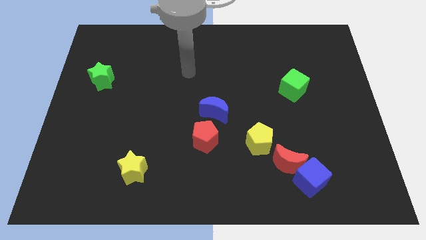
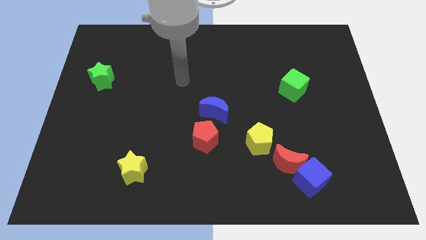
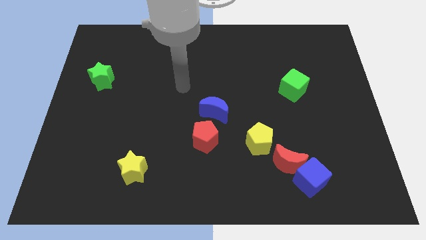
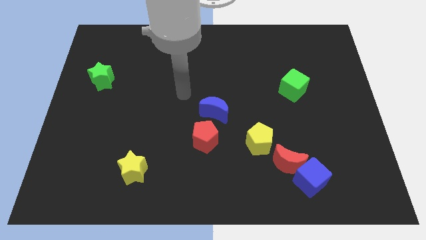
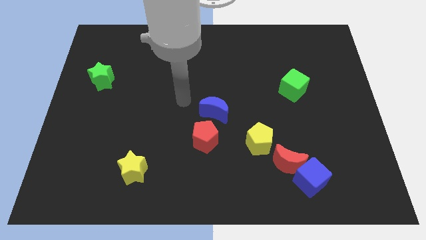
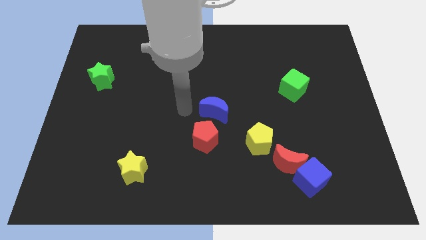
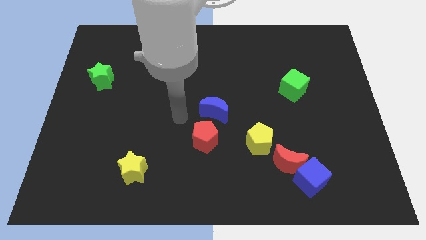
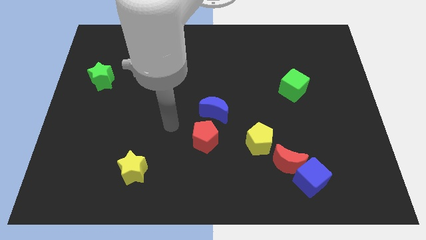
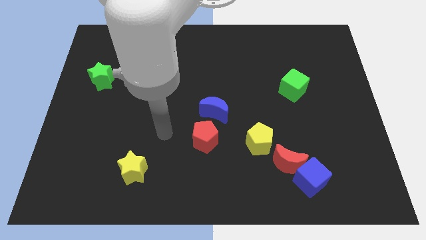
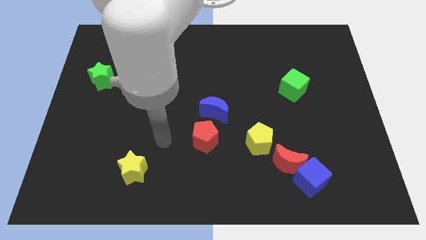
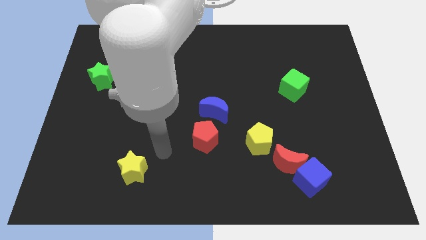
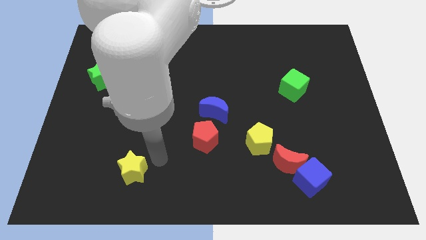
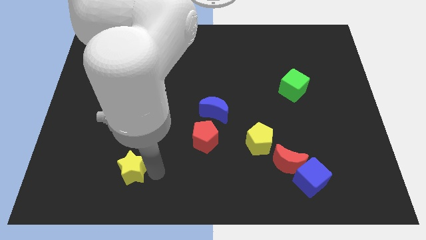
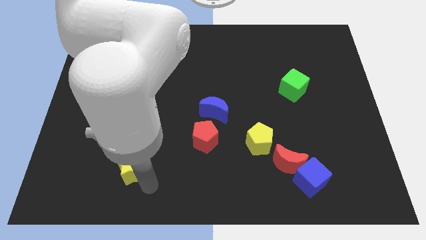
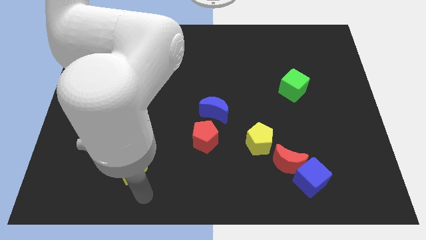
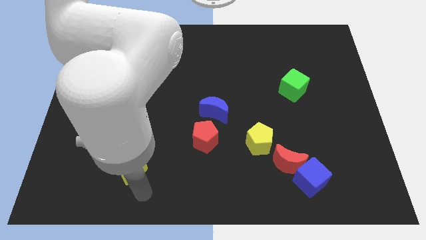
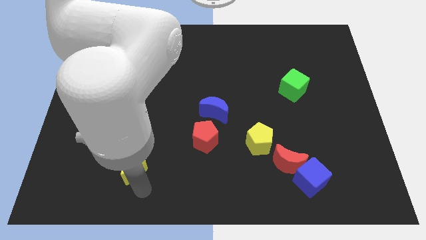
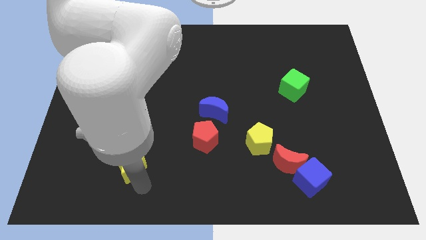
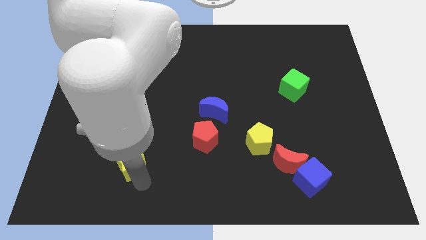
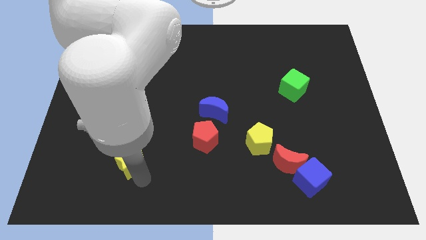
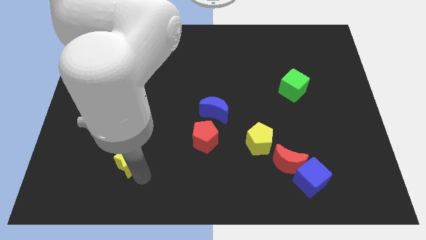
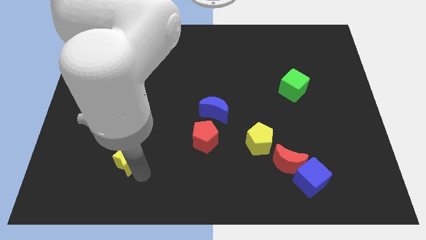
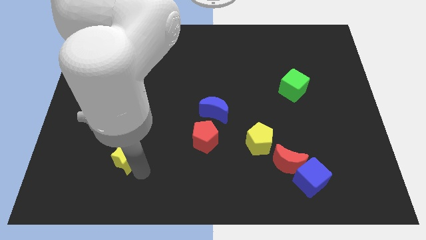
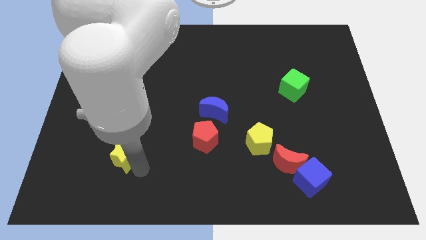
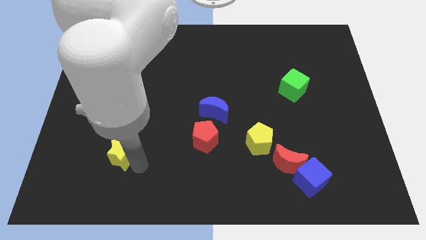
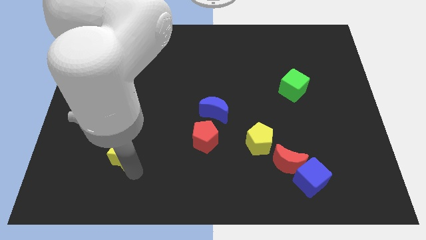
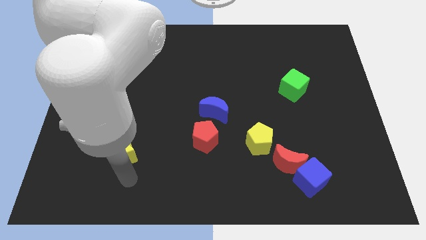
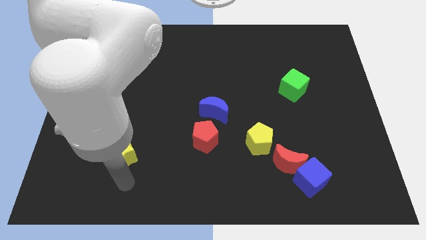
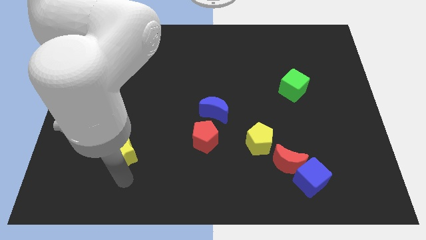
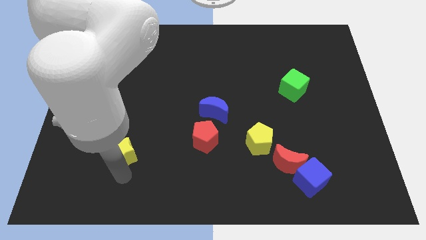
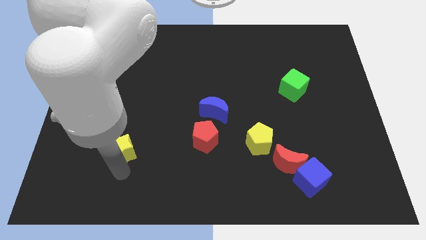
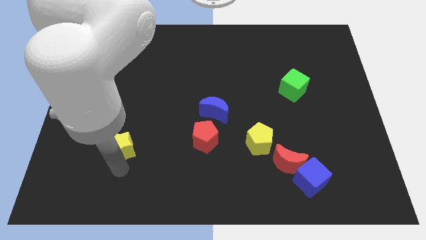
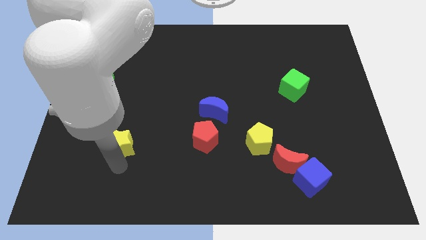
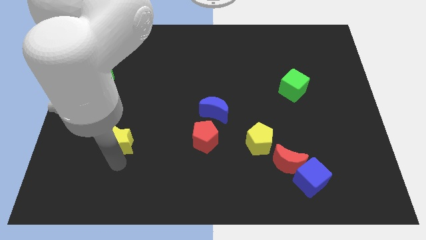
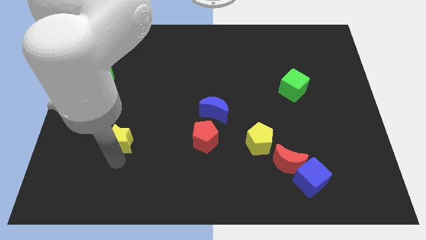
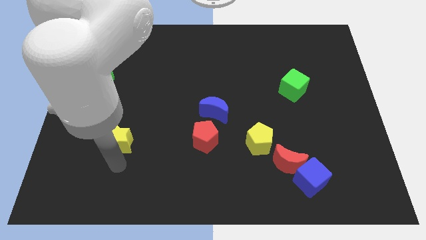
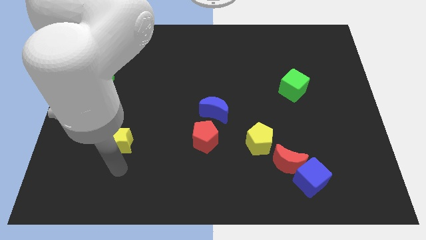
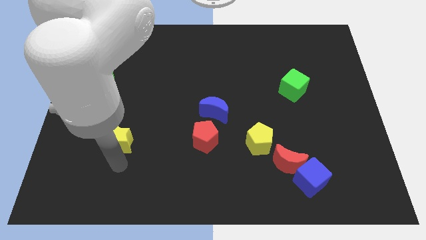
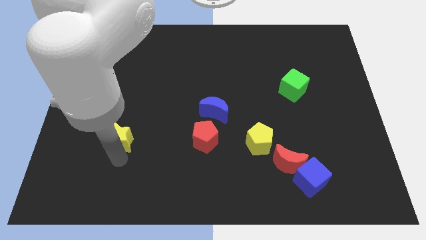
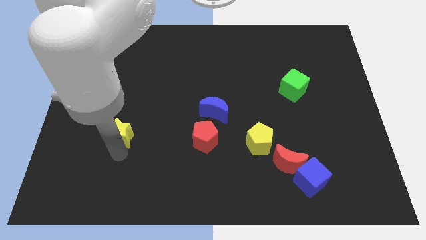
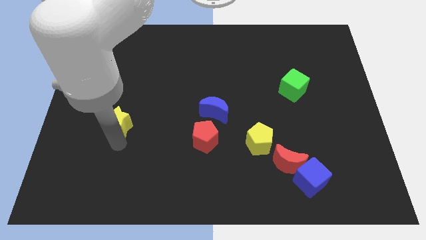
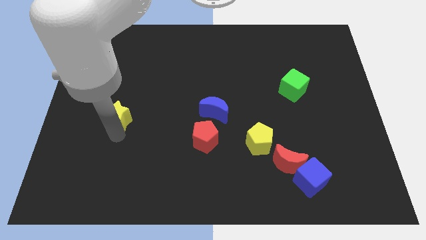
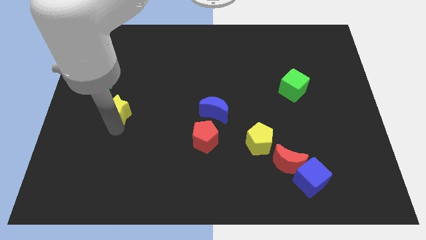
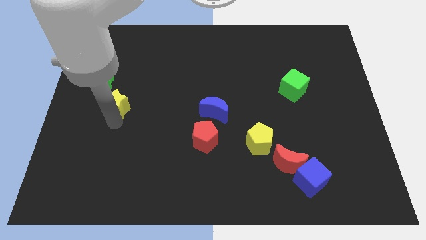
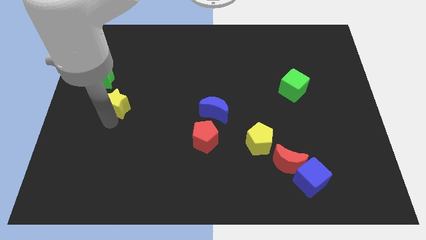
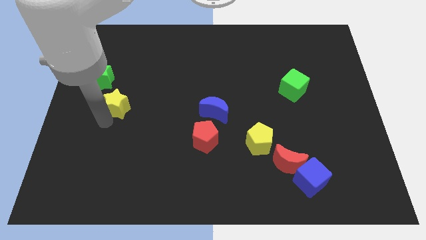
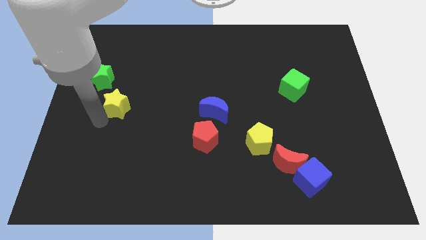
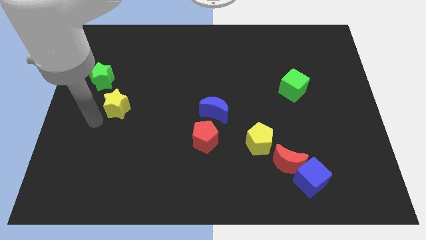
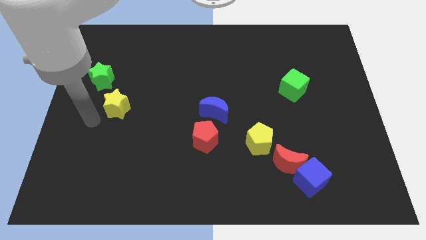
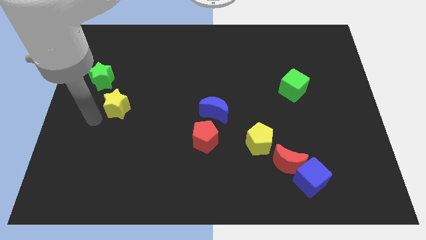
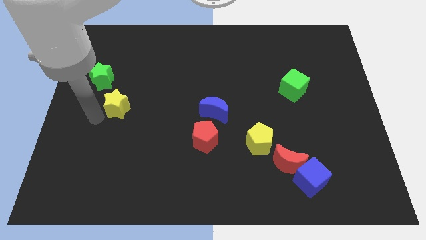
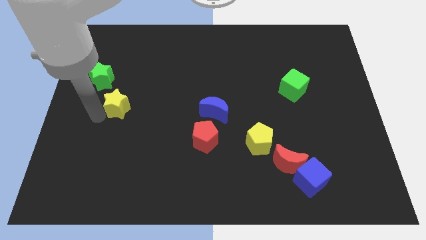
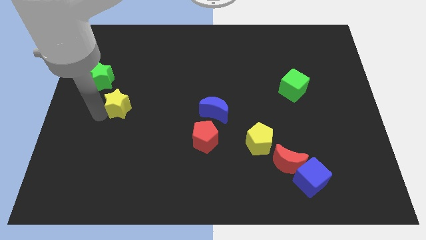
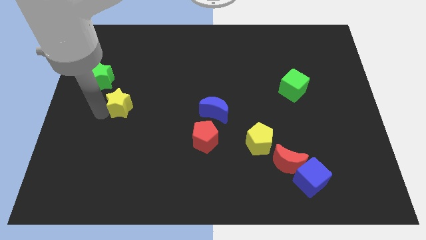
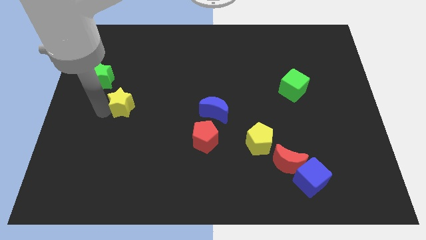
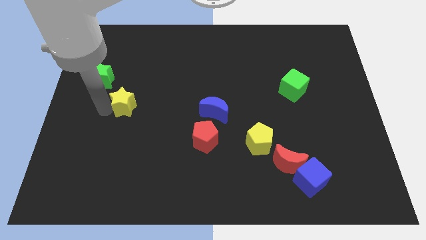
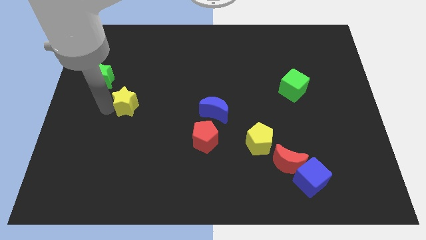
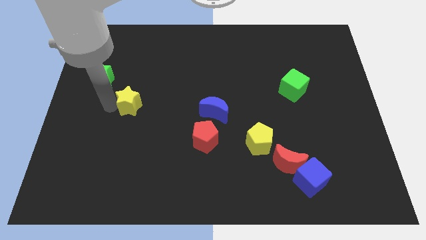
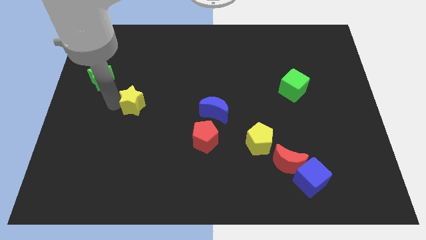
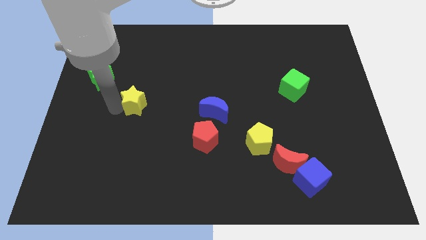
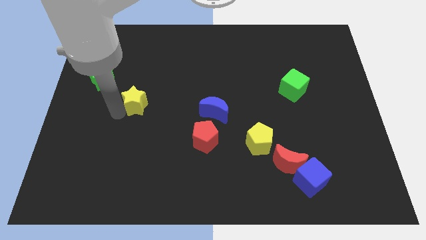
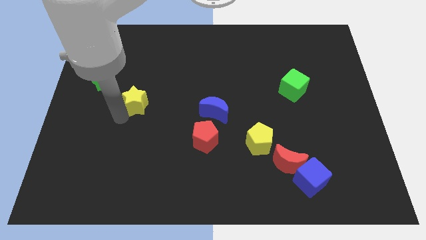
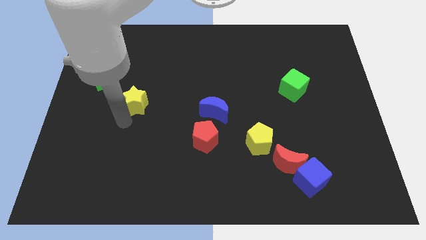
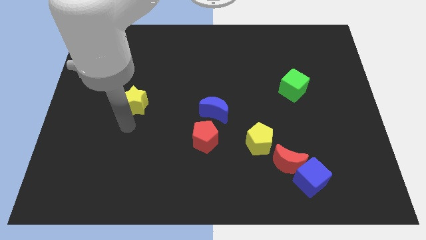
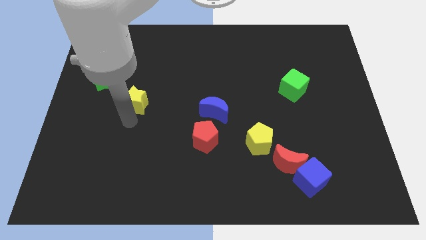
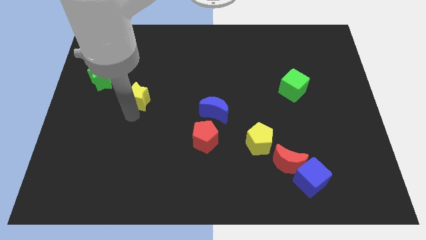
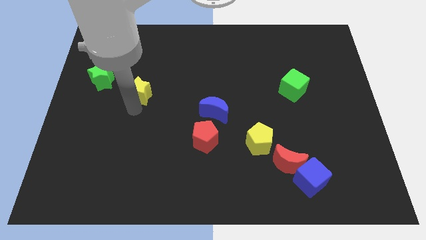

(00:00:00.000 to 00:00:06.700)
push the yellow star up

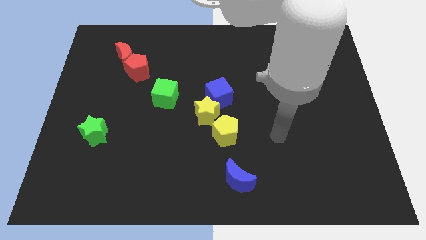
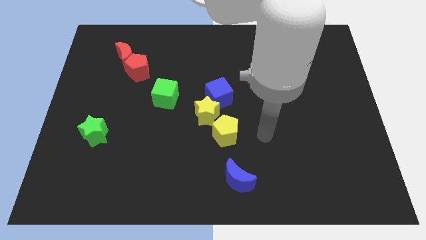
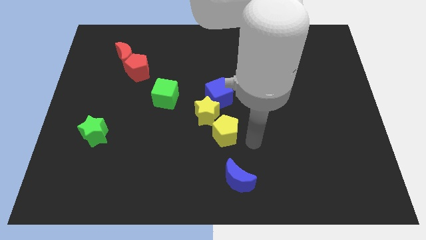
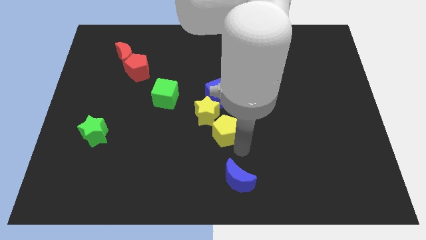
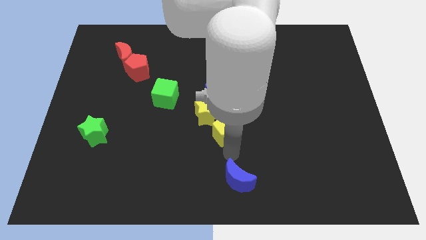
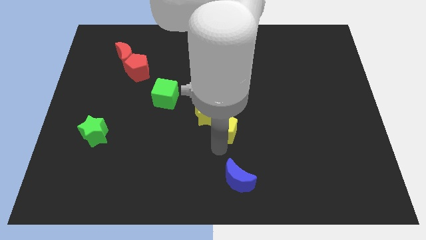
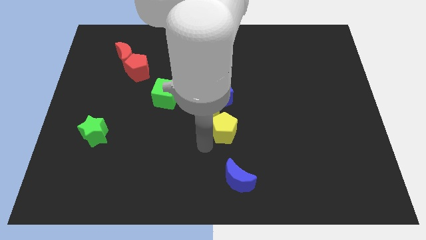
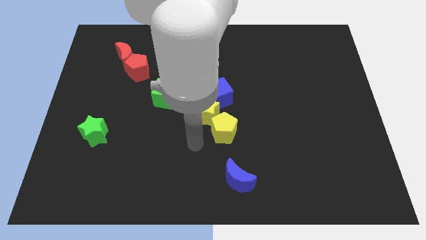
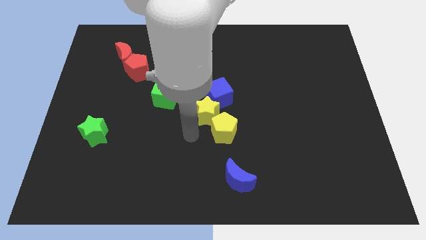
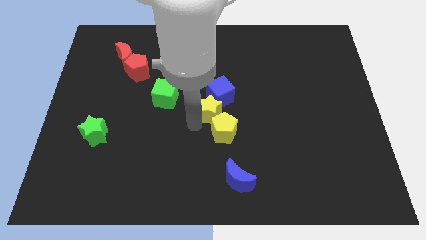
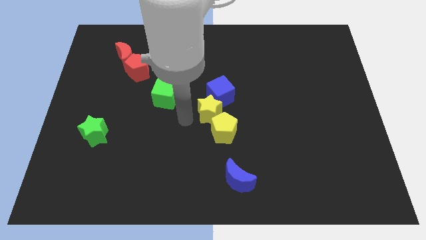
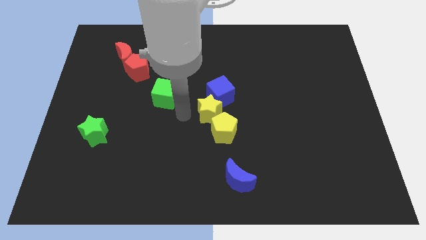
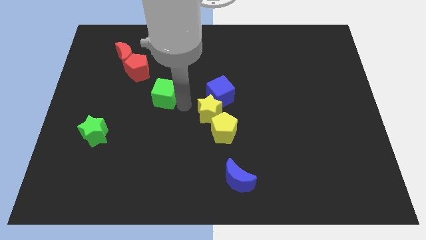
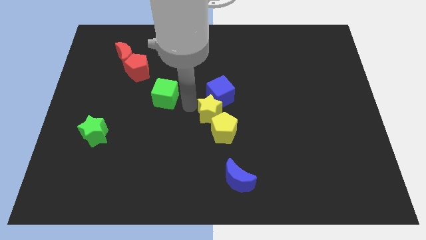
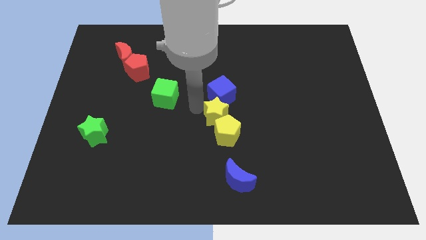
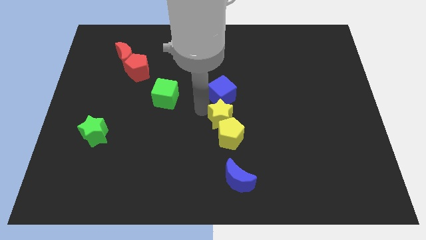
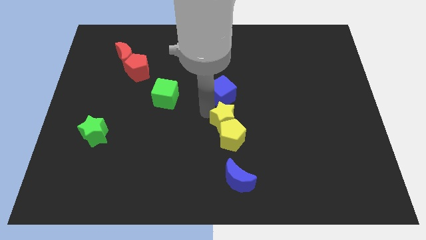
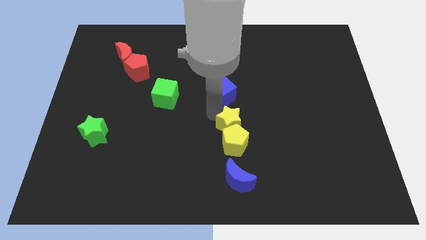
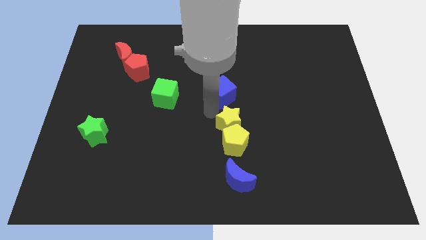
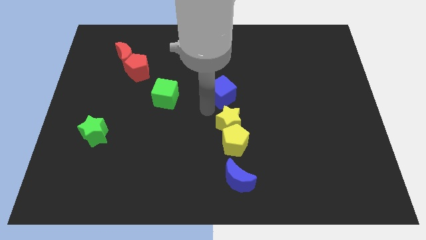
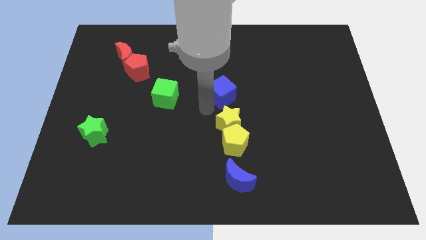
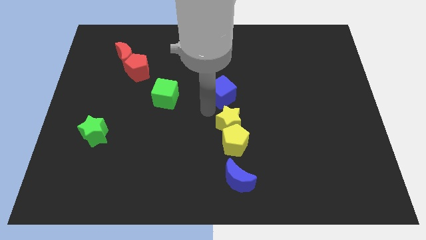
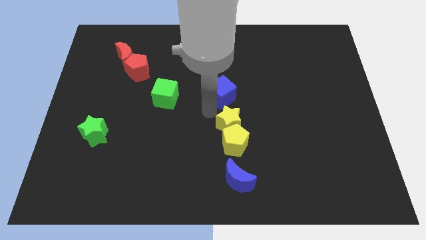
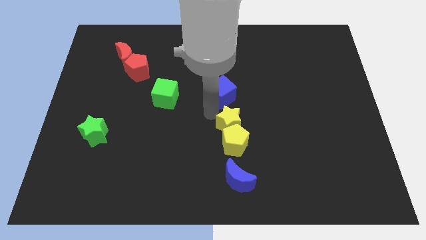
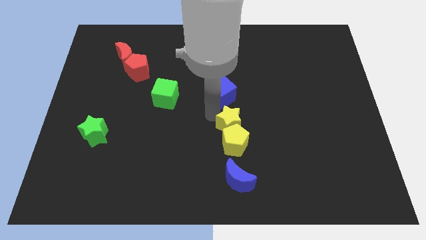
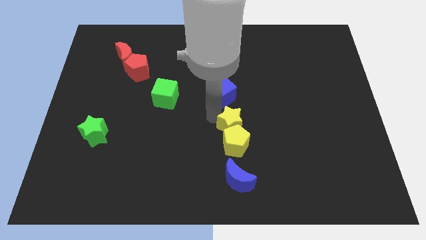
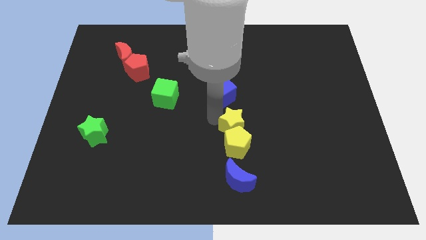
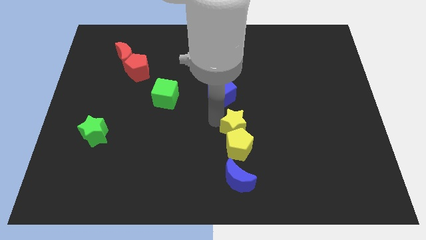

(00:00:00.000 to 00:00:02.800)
move the yellow star slightly diagonally down and right
